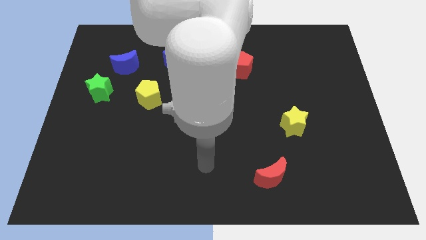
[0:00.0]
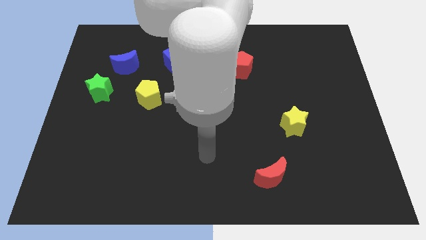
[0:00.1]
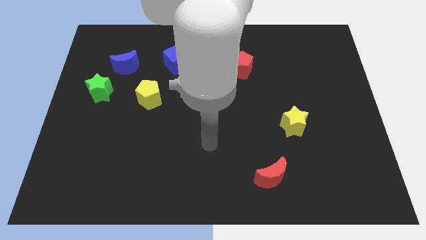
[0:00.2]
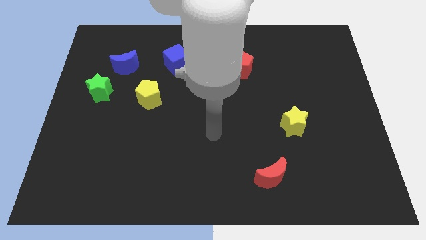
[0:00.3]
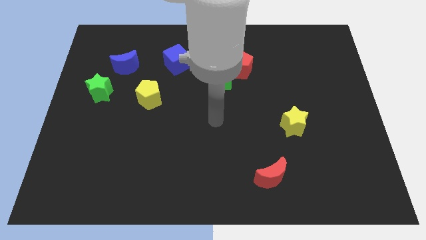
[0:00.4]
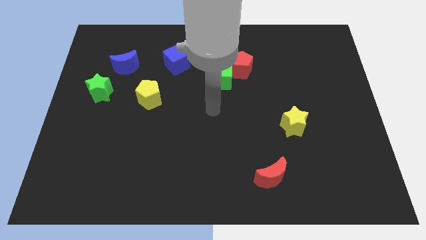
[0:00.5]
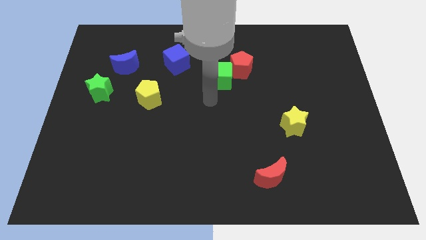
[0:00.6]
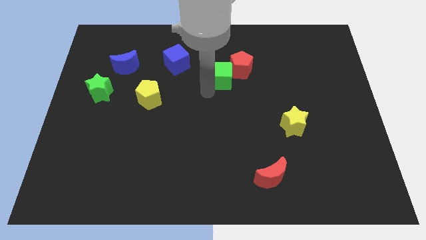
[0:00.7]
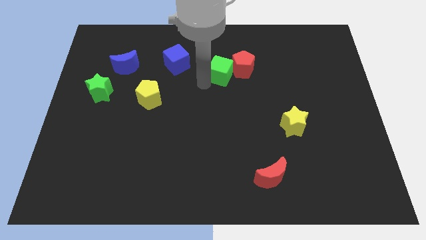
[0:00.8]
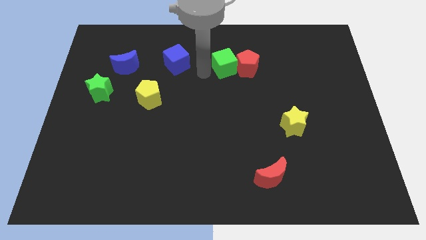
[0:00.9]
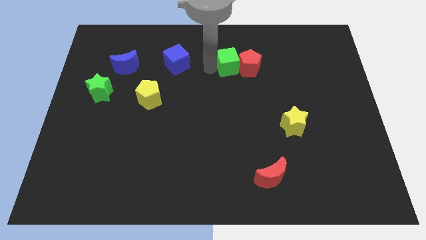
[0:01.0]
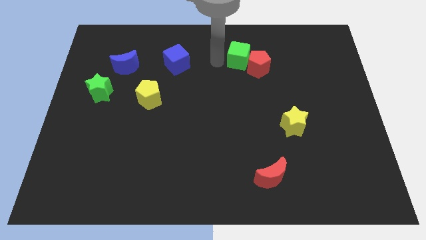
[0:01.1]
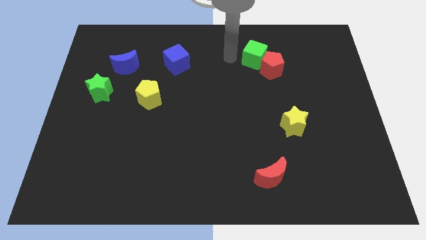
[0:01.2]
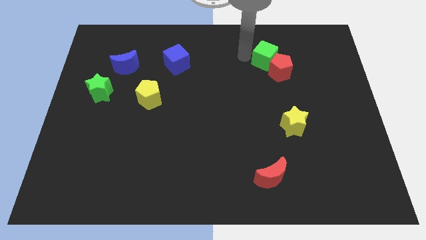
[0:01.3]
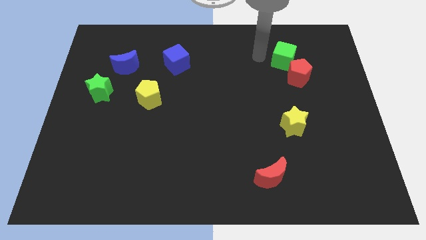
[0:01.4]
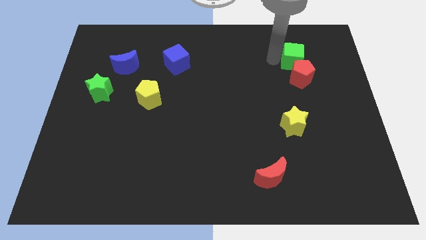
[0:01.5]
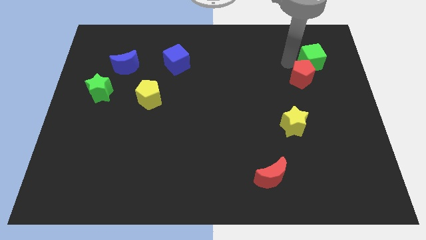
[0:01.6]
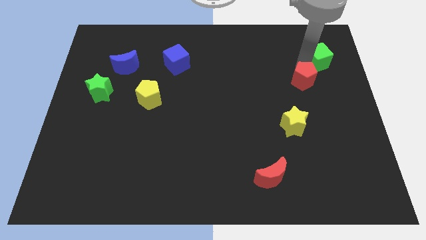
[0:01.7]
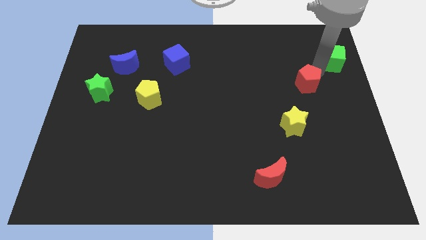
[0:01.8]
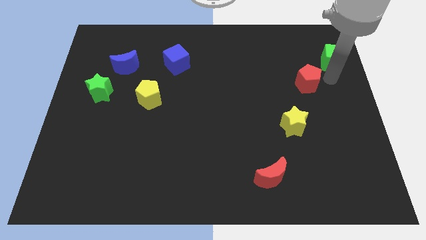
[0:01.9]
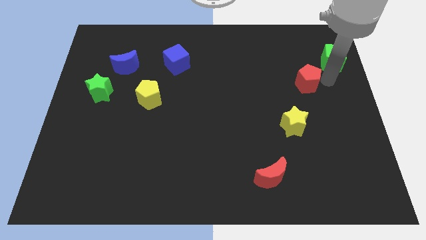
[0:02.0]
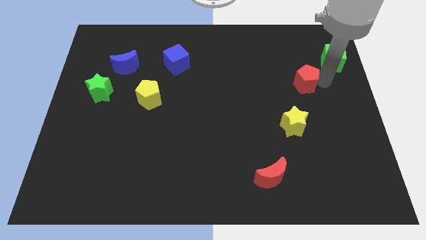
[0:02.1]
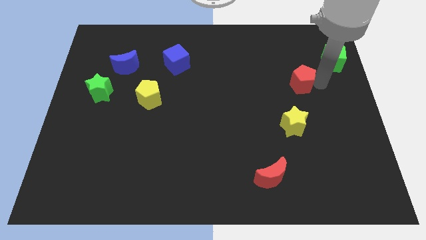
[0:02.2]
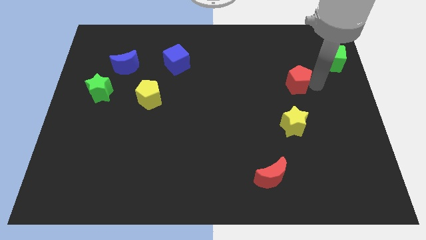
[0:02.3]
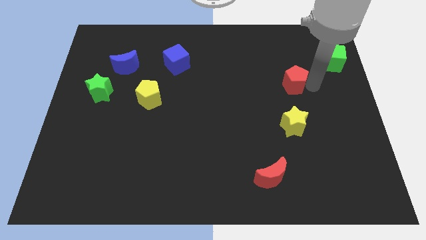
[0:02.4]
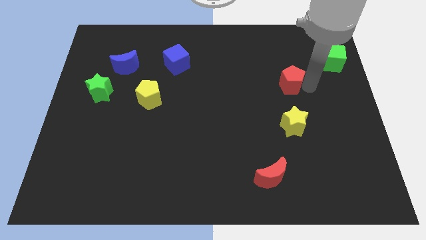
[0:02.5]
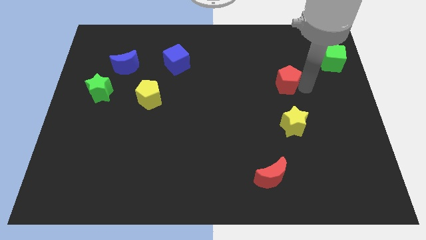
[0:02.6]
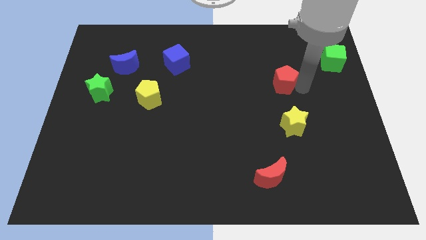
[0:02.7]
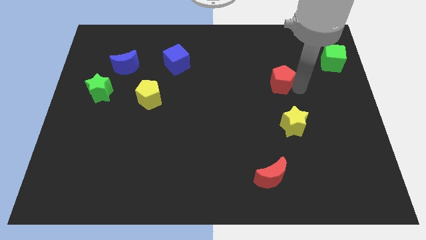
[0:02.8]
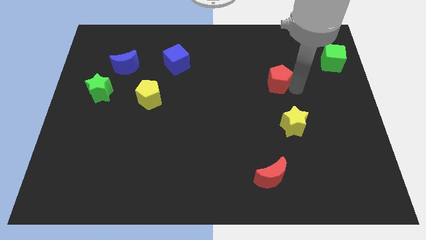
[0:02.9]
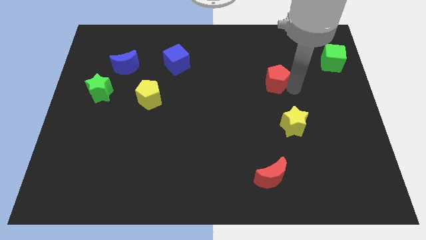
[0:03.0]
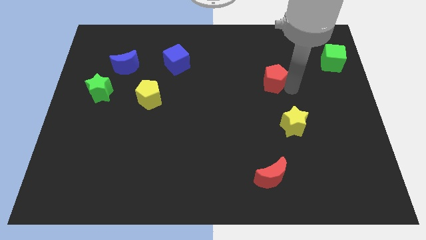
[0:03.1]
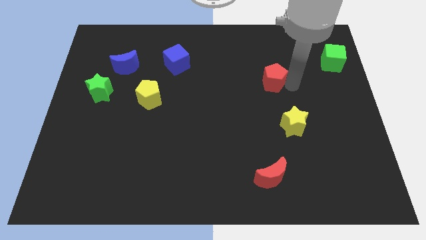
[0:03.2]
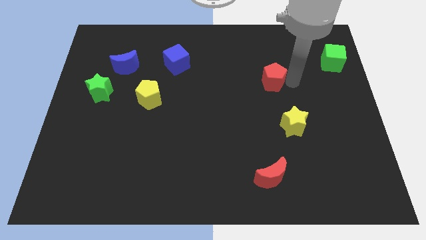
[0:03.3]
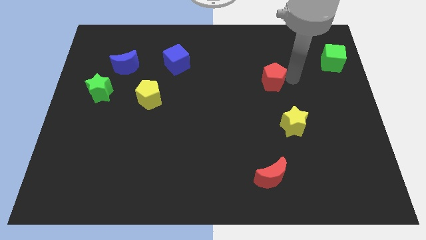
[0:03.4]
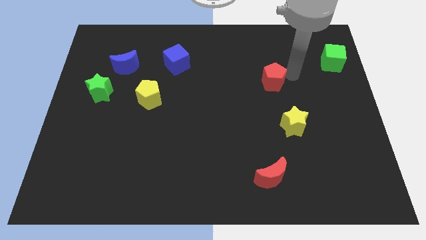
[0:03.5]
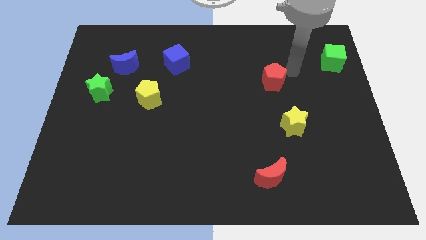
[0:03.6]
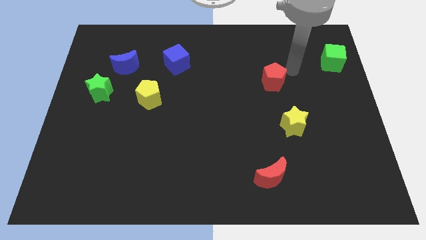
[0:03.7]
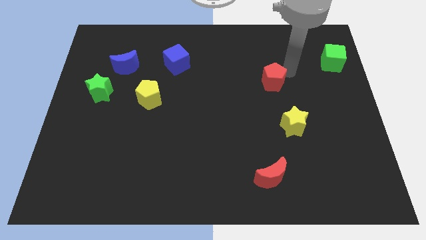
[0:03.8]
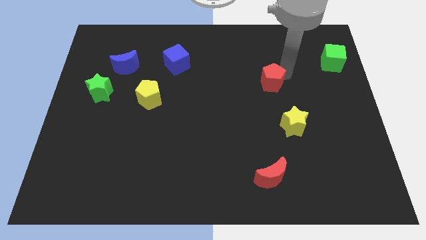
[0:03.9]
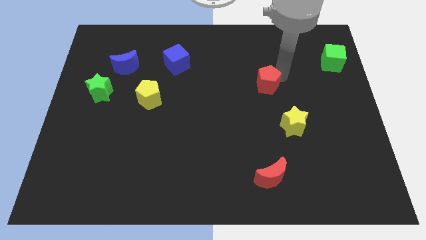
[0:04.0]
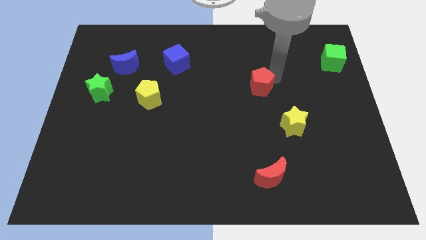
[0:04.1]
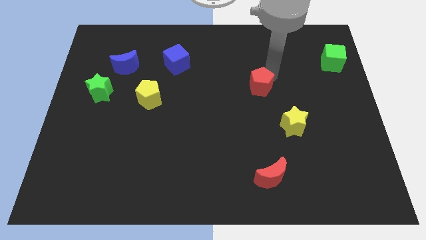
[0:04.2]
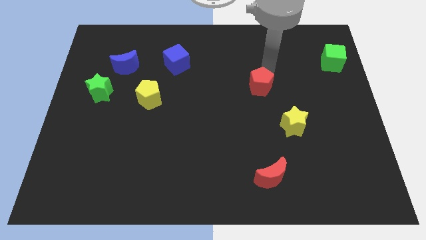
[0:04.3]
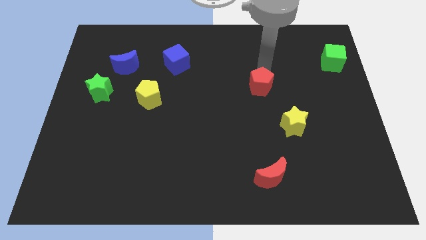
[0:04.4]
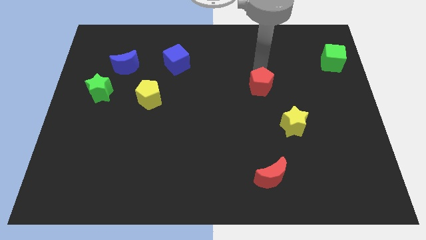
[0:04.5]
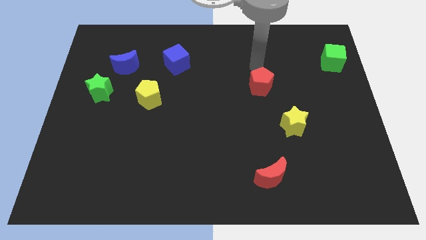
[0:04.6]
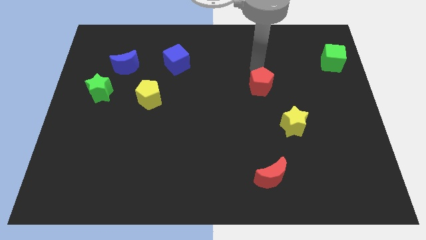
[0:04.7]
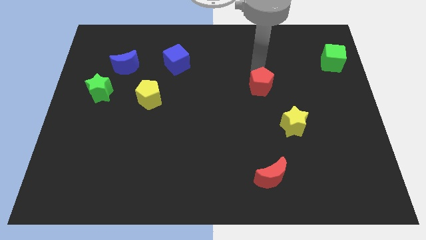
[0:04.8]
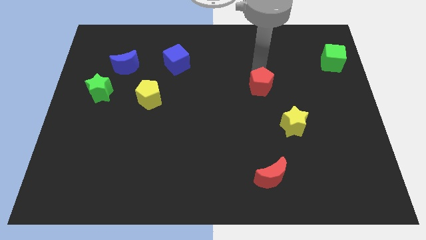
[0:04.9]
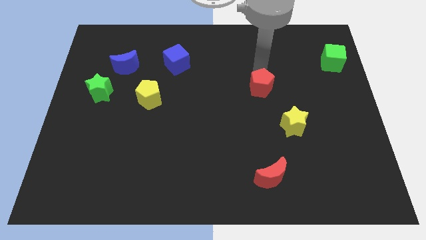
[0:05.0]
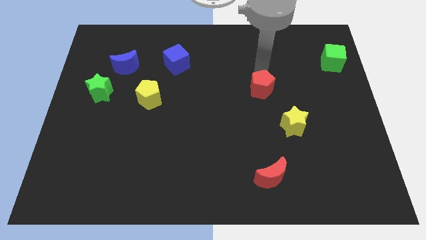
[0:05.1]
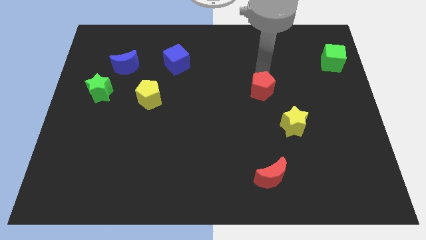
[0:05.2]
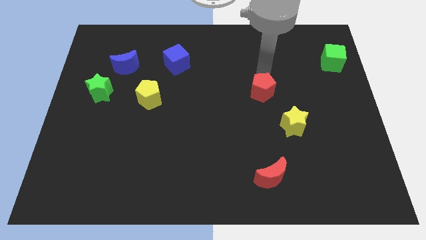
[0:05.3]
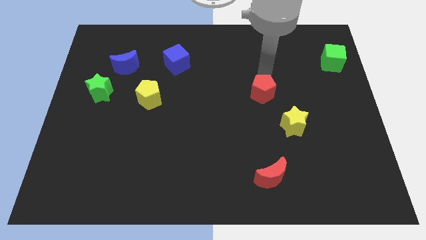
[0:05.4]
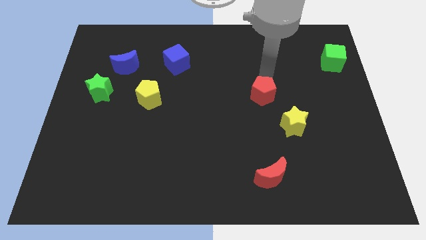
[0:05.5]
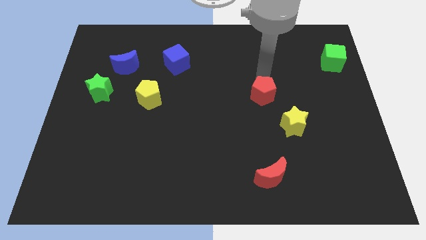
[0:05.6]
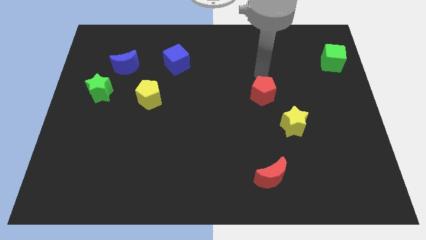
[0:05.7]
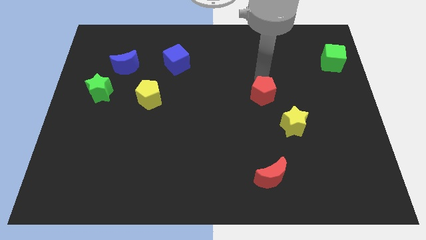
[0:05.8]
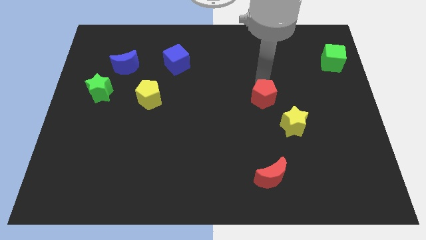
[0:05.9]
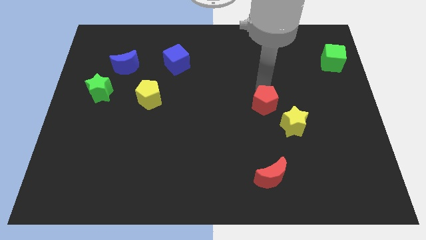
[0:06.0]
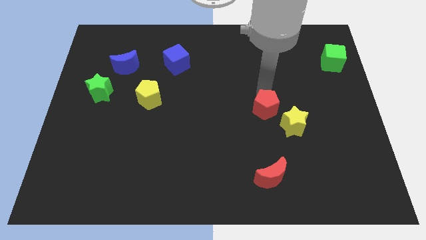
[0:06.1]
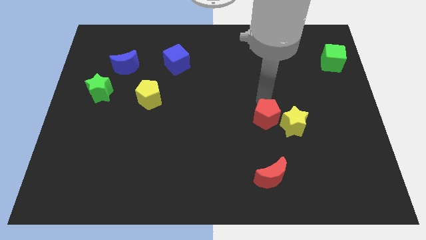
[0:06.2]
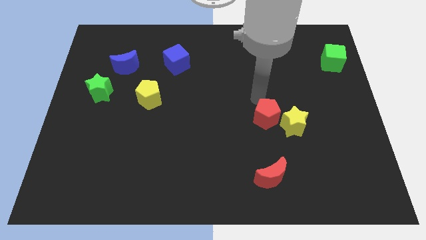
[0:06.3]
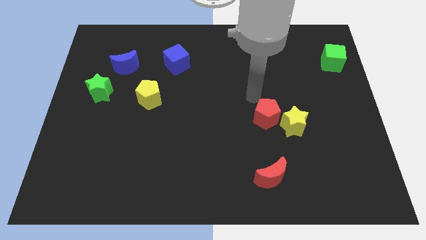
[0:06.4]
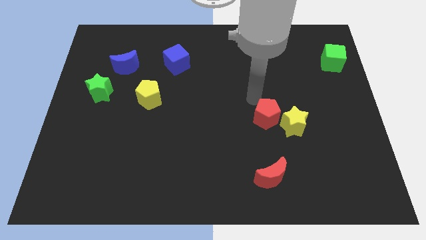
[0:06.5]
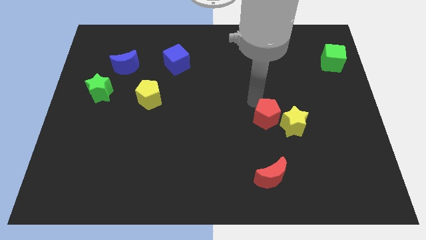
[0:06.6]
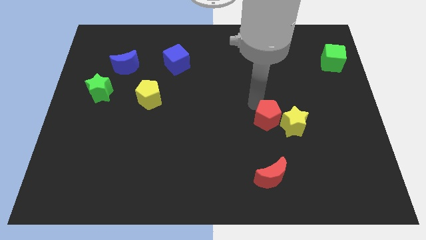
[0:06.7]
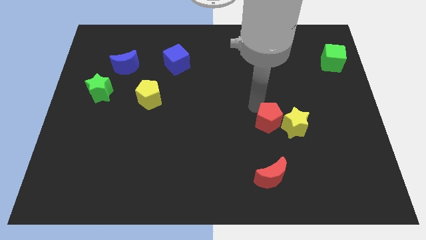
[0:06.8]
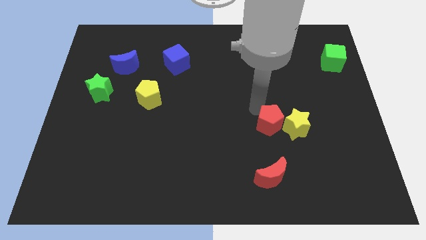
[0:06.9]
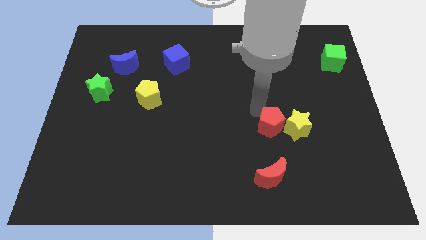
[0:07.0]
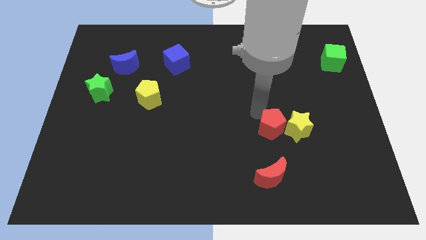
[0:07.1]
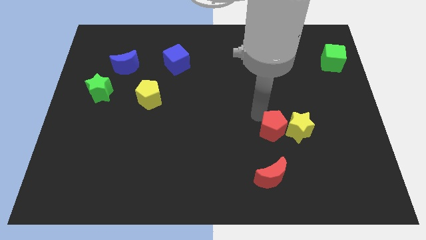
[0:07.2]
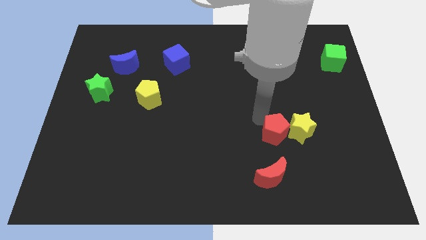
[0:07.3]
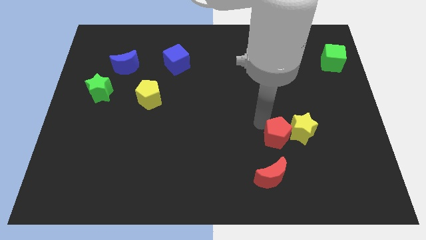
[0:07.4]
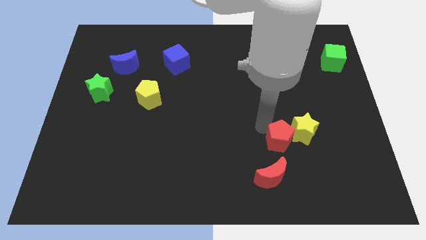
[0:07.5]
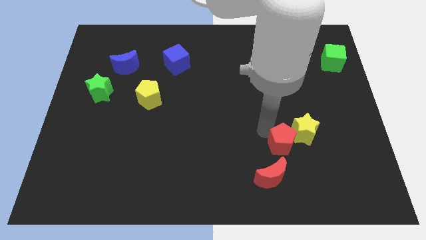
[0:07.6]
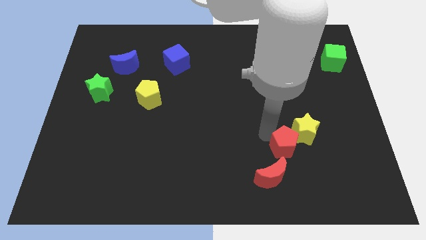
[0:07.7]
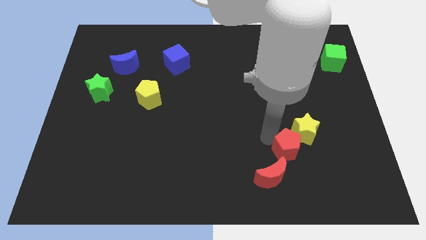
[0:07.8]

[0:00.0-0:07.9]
put the red pentagon to the bottom of the yellow star
